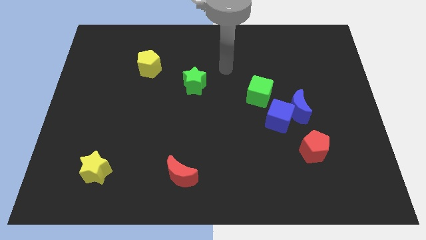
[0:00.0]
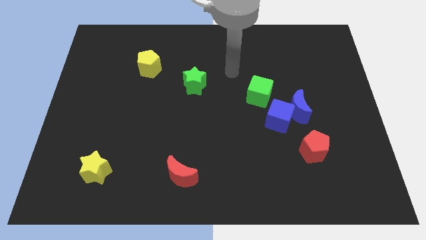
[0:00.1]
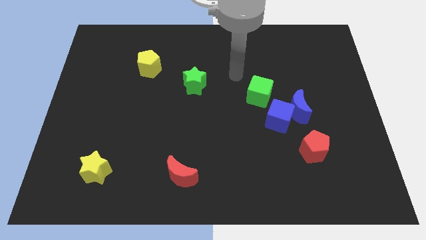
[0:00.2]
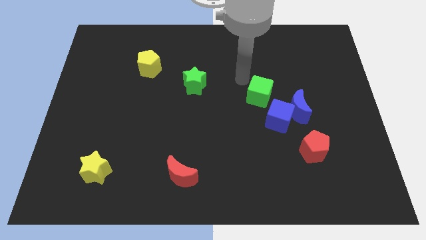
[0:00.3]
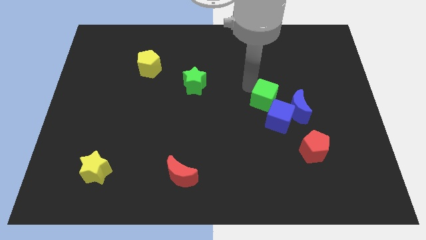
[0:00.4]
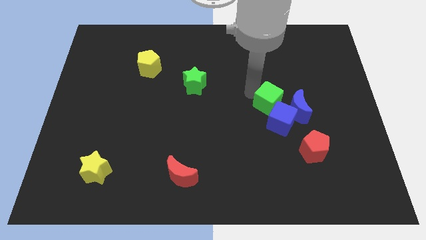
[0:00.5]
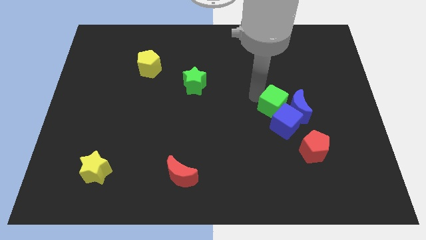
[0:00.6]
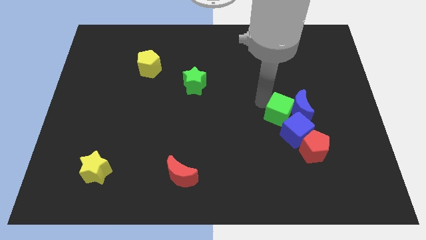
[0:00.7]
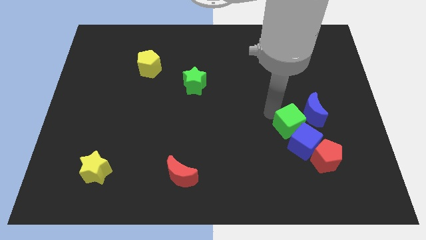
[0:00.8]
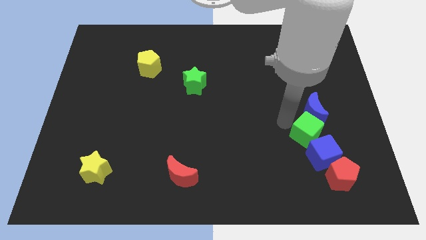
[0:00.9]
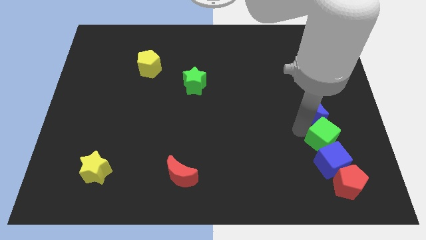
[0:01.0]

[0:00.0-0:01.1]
move the blue moon away from the blue cube and green cube

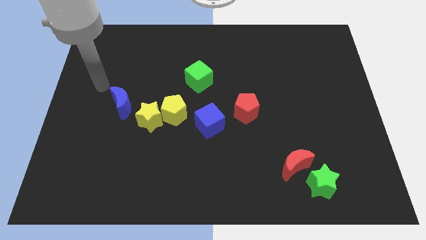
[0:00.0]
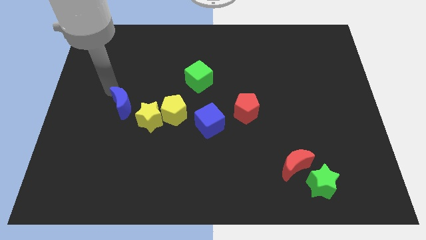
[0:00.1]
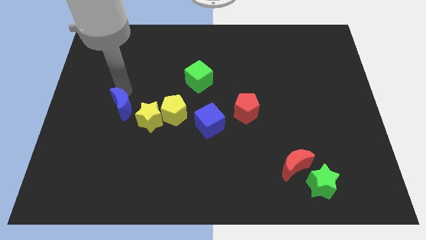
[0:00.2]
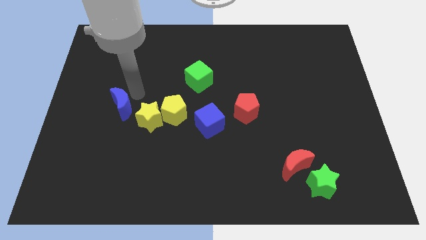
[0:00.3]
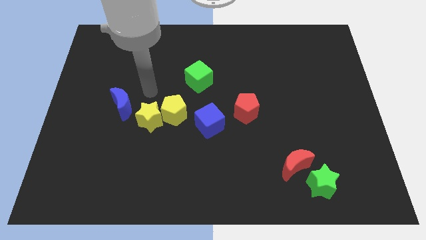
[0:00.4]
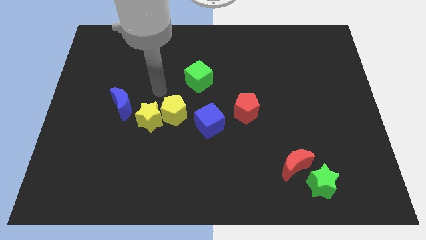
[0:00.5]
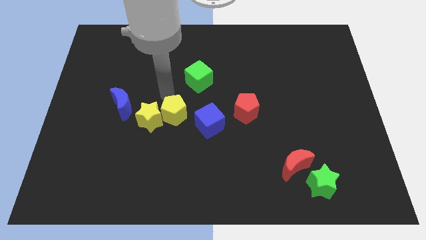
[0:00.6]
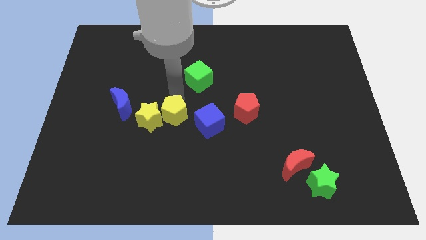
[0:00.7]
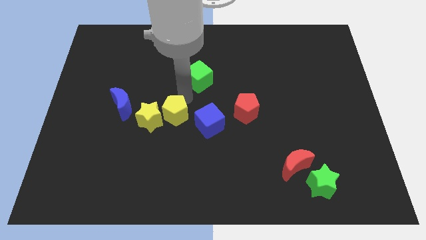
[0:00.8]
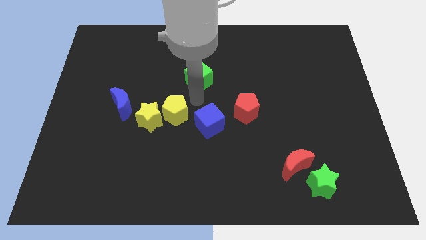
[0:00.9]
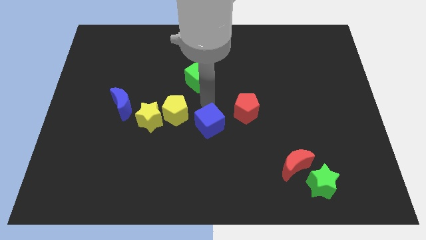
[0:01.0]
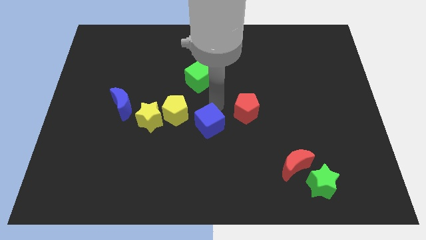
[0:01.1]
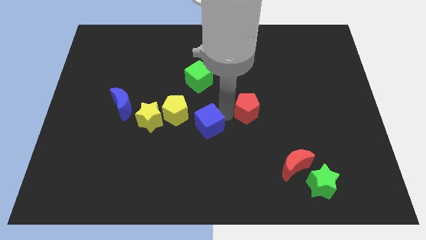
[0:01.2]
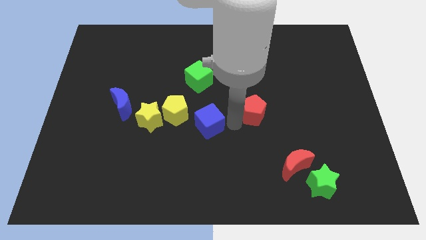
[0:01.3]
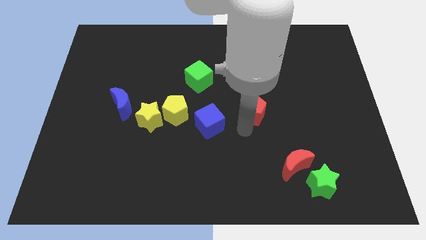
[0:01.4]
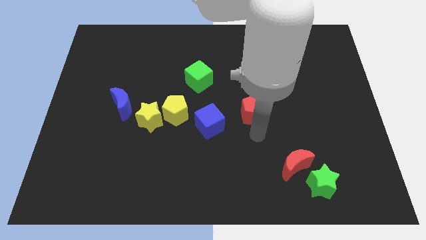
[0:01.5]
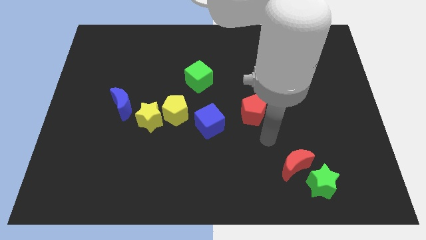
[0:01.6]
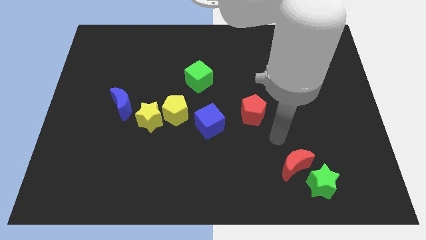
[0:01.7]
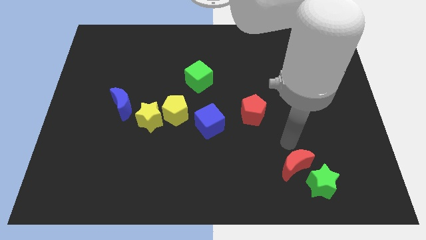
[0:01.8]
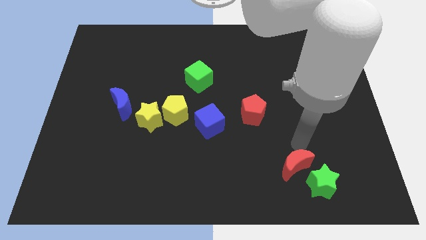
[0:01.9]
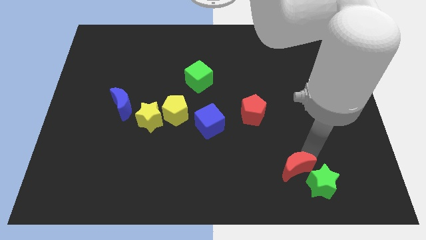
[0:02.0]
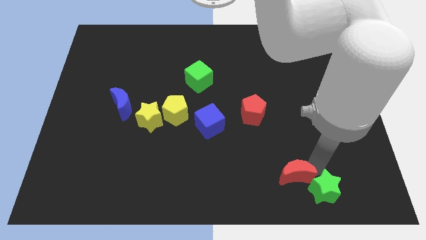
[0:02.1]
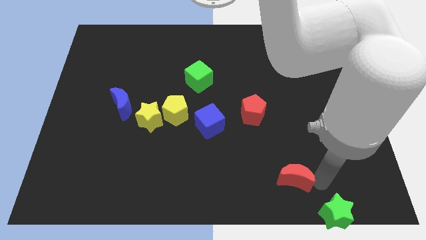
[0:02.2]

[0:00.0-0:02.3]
separate the red moon from the green star

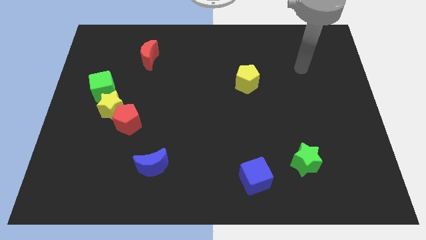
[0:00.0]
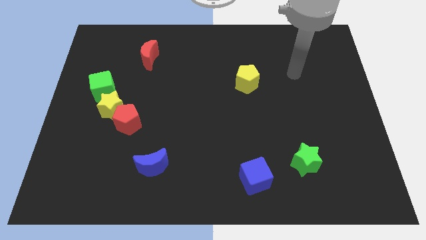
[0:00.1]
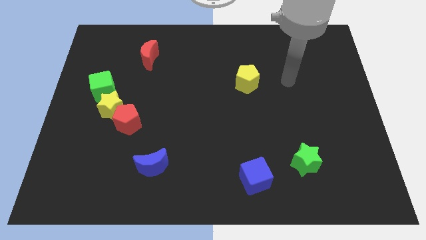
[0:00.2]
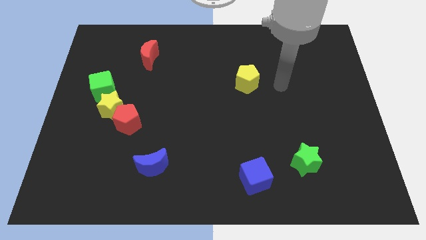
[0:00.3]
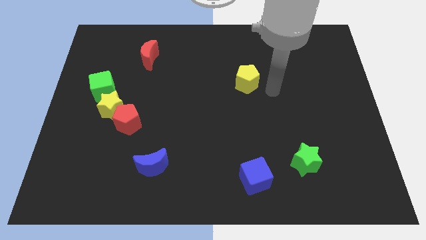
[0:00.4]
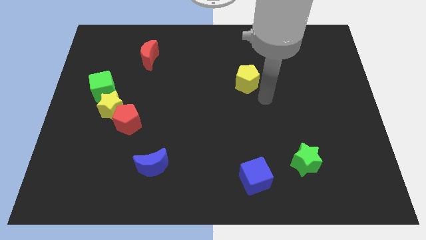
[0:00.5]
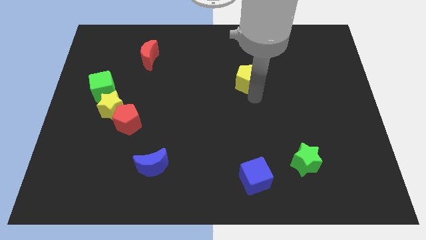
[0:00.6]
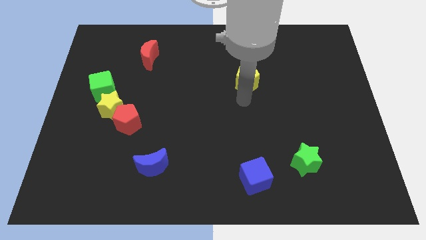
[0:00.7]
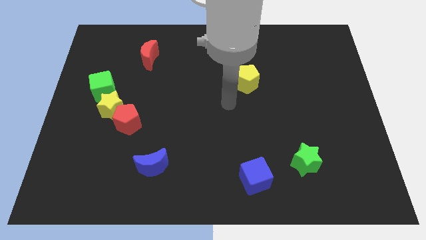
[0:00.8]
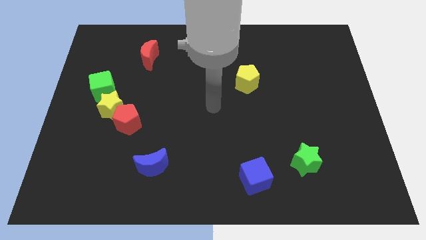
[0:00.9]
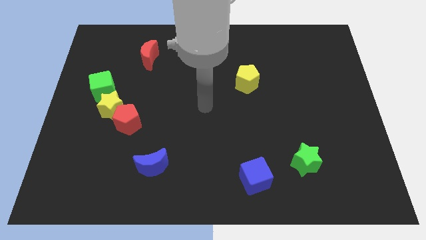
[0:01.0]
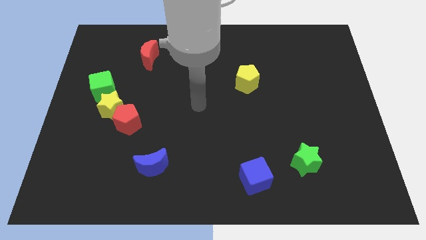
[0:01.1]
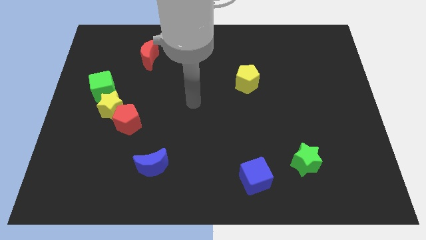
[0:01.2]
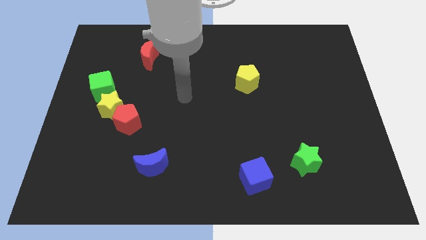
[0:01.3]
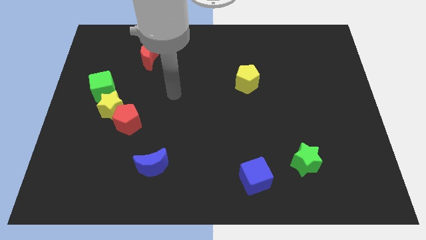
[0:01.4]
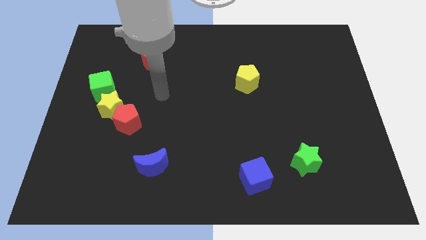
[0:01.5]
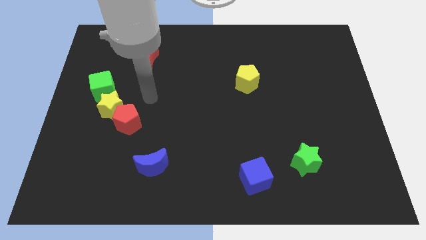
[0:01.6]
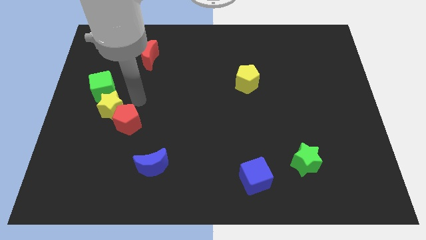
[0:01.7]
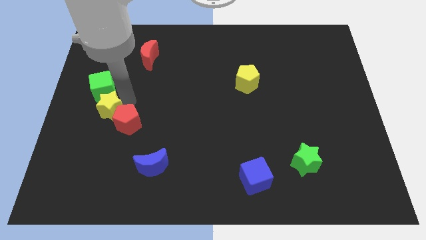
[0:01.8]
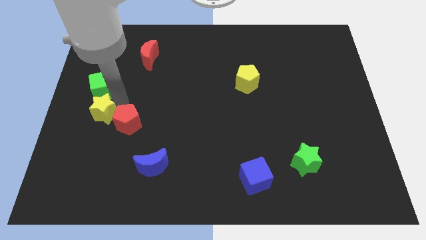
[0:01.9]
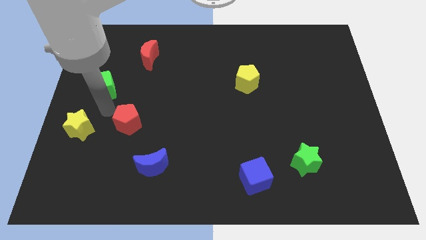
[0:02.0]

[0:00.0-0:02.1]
pull the red pentagon apart from the yellow star

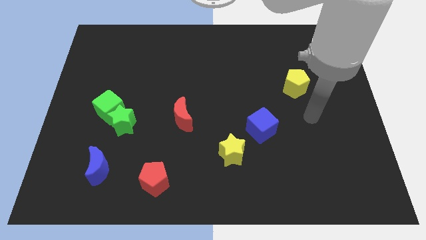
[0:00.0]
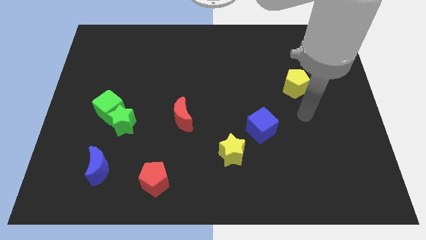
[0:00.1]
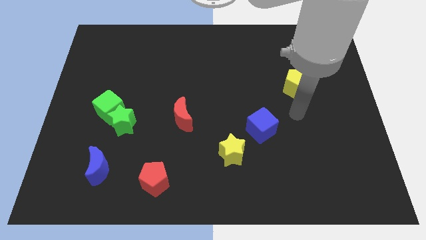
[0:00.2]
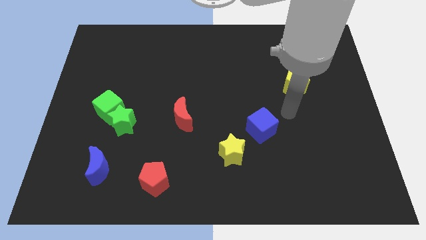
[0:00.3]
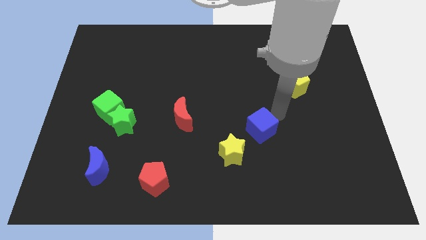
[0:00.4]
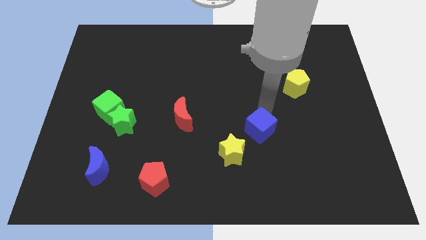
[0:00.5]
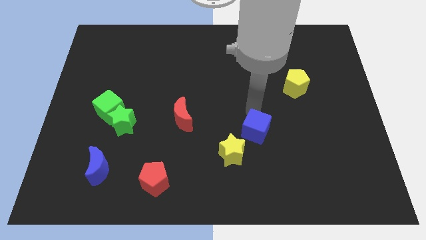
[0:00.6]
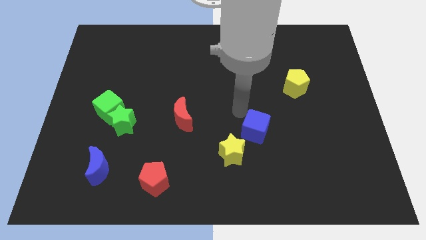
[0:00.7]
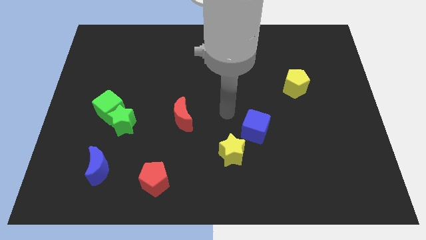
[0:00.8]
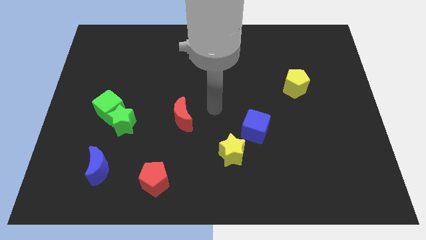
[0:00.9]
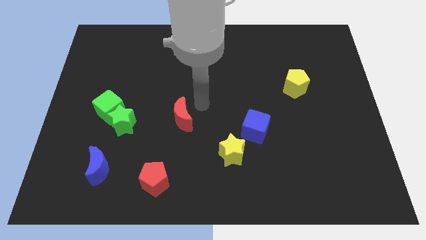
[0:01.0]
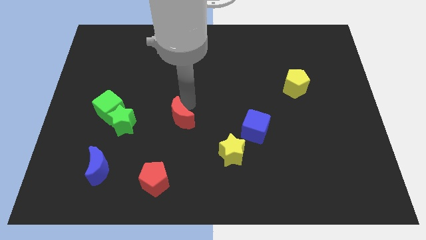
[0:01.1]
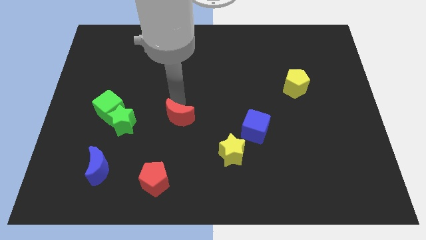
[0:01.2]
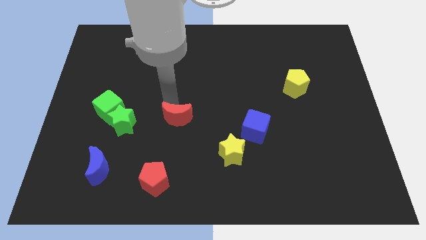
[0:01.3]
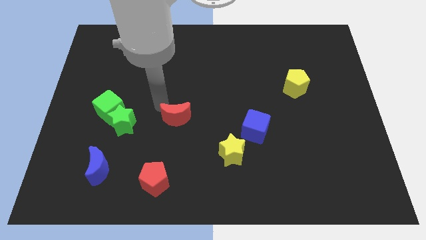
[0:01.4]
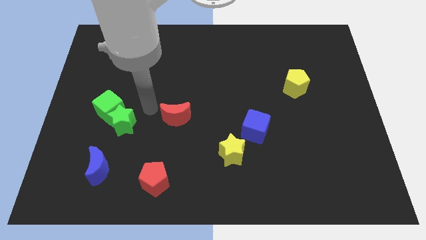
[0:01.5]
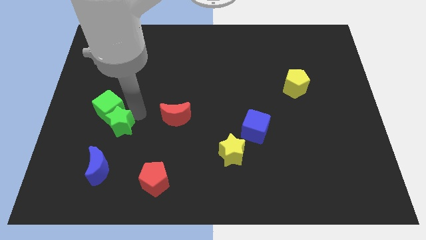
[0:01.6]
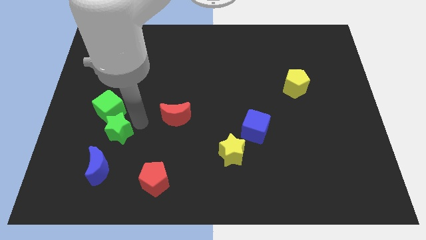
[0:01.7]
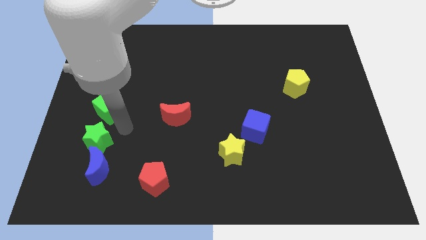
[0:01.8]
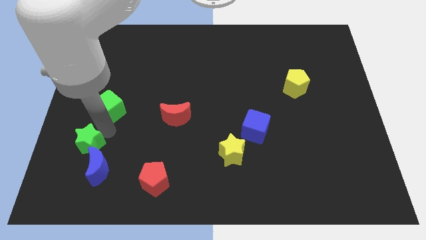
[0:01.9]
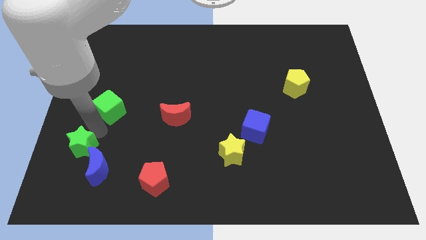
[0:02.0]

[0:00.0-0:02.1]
move the green cube away from the green star

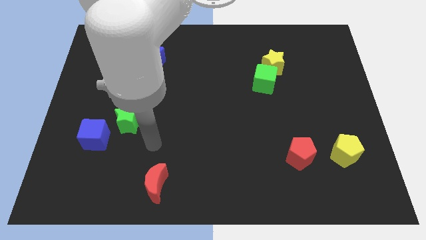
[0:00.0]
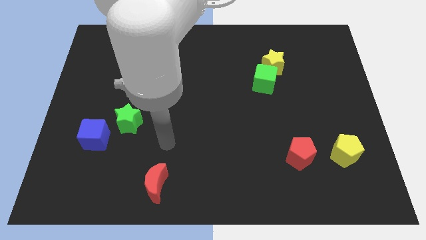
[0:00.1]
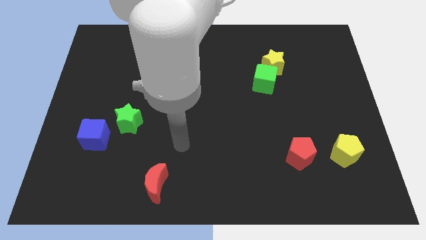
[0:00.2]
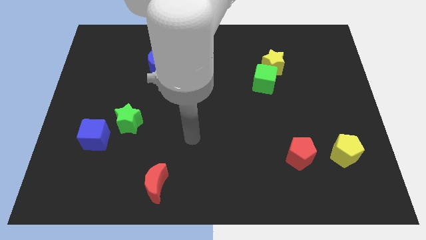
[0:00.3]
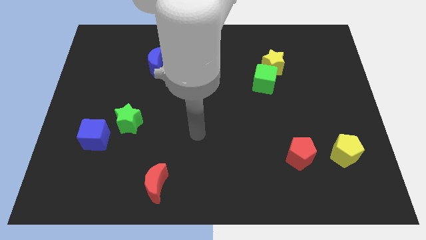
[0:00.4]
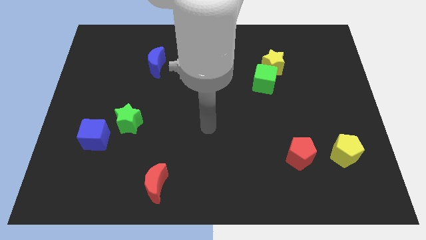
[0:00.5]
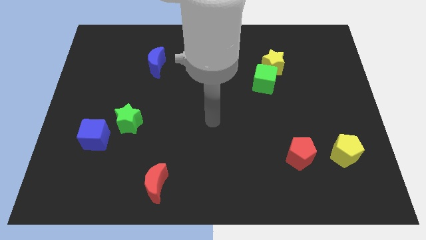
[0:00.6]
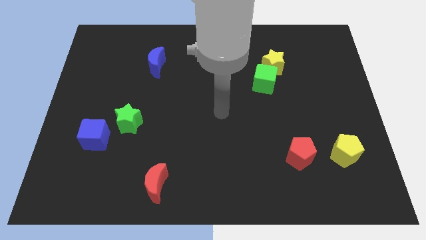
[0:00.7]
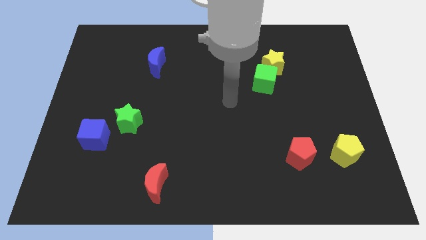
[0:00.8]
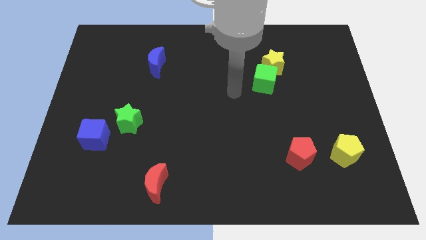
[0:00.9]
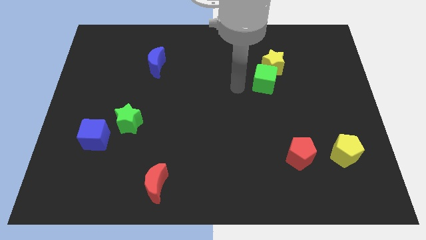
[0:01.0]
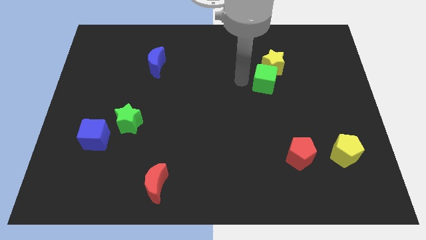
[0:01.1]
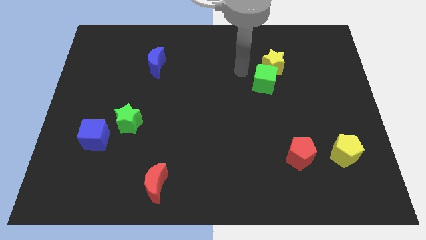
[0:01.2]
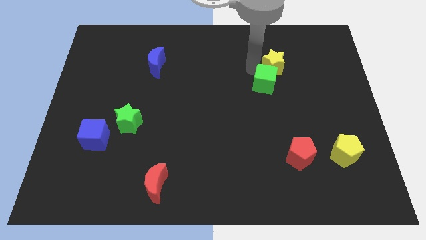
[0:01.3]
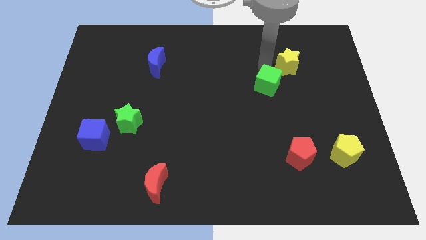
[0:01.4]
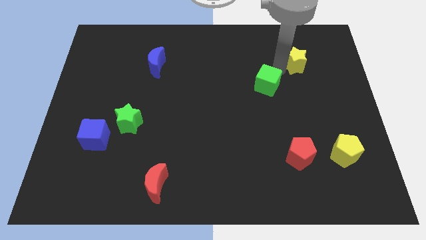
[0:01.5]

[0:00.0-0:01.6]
separate the green cube from the yellow star
